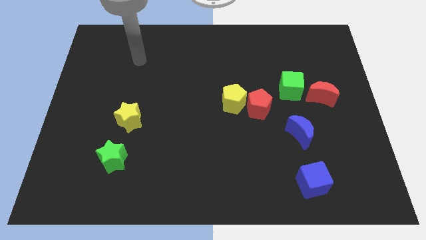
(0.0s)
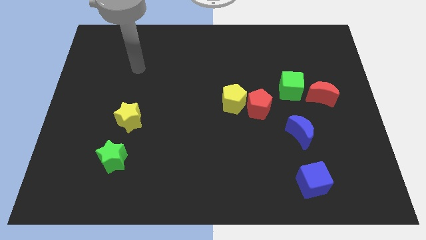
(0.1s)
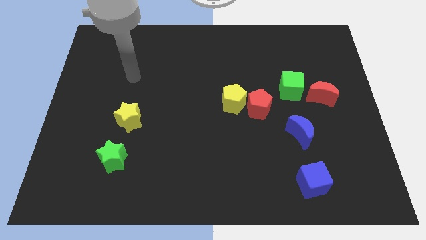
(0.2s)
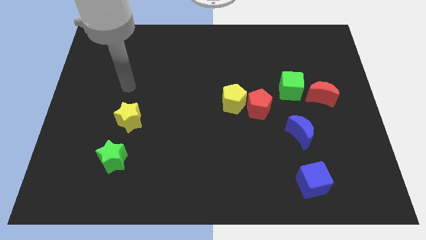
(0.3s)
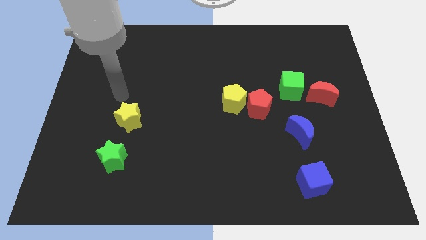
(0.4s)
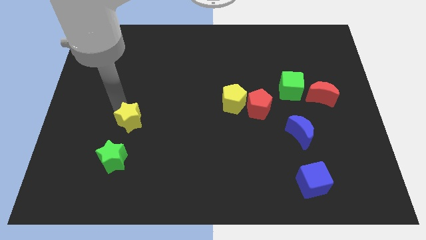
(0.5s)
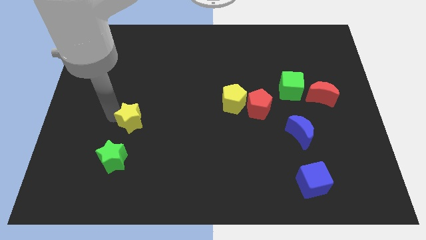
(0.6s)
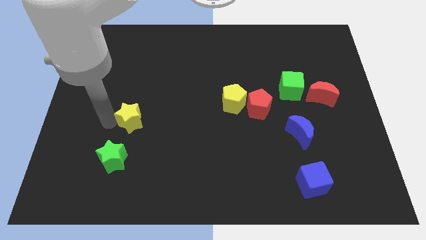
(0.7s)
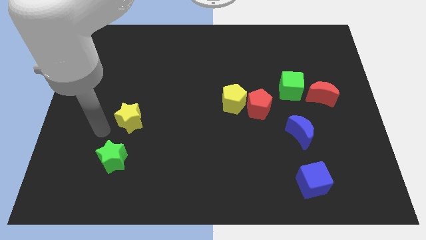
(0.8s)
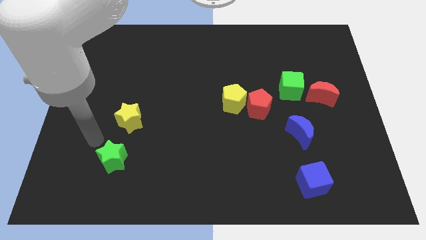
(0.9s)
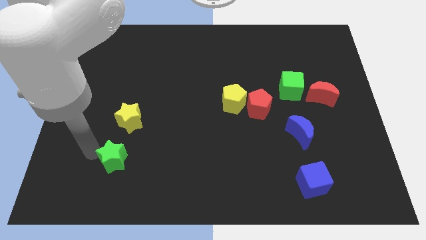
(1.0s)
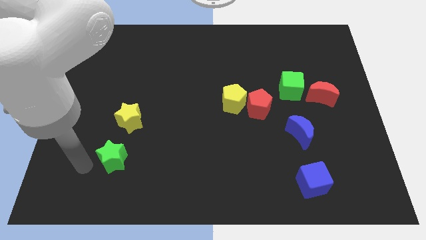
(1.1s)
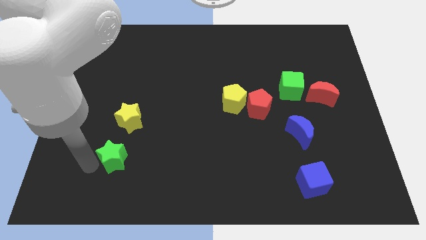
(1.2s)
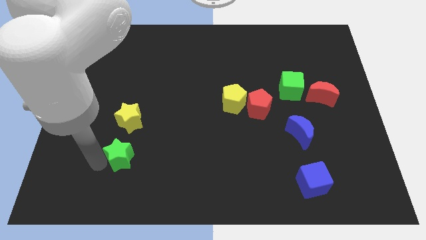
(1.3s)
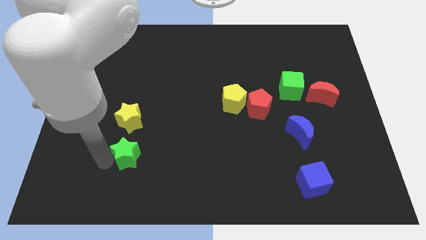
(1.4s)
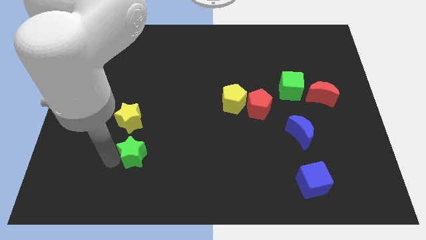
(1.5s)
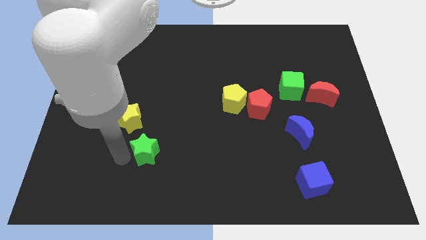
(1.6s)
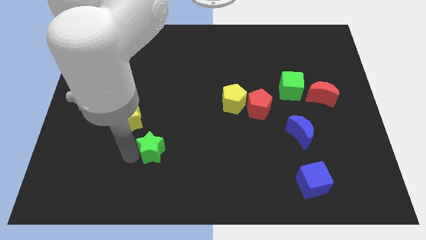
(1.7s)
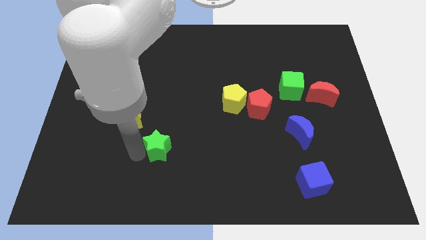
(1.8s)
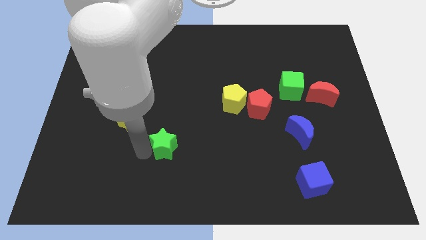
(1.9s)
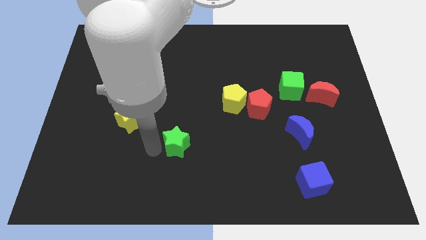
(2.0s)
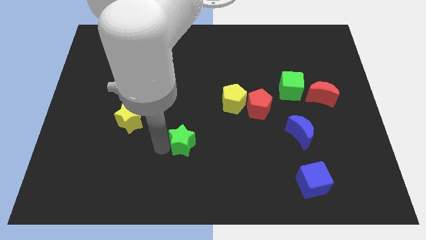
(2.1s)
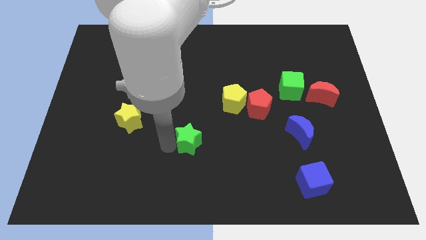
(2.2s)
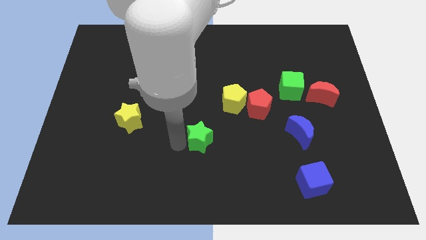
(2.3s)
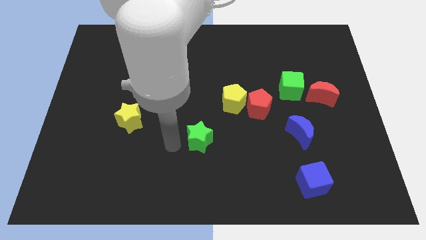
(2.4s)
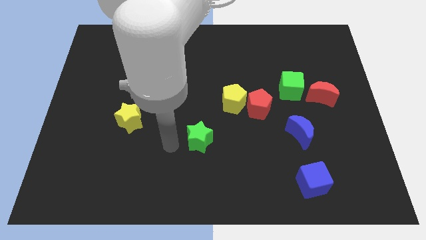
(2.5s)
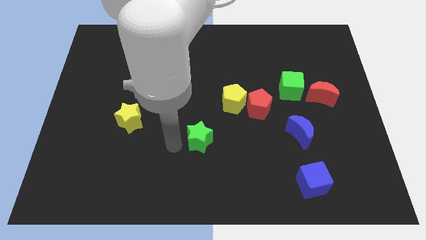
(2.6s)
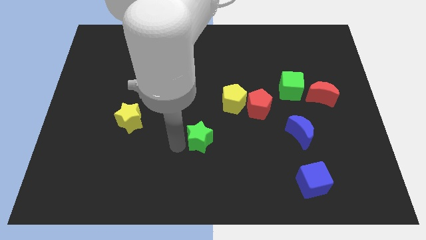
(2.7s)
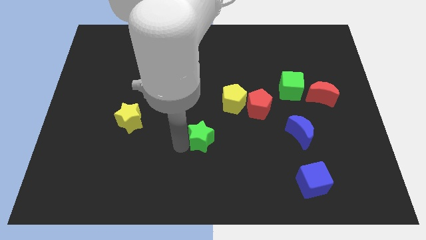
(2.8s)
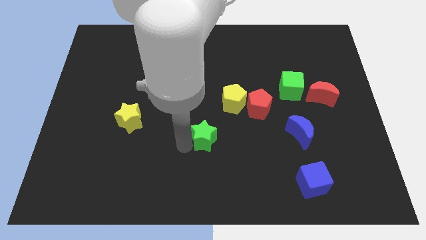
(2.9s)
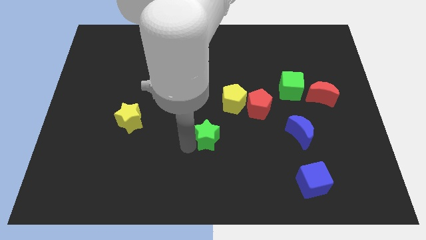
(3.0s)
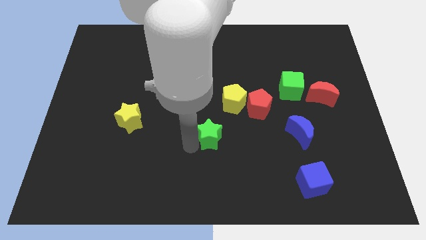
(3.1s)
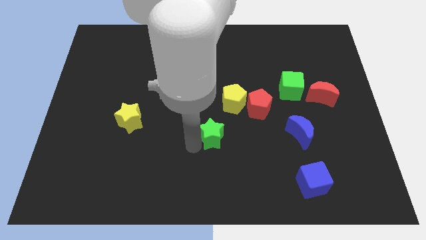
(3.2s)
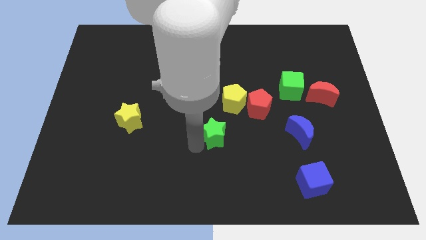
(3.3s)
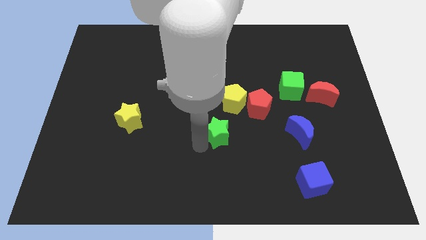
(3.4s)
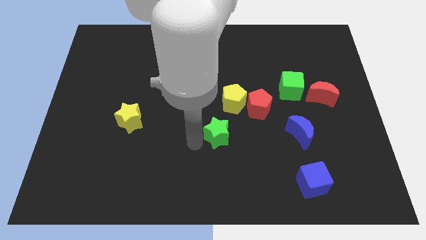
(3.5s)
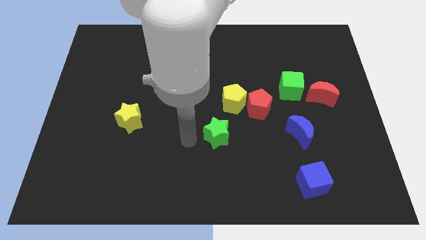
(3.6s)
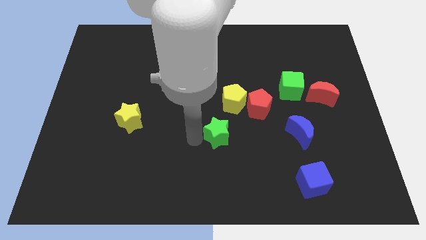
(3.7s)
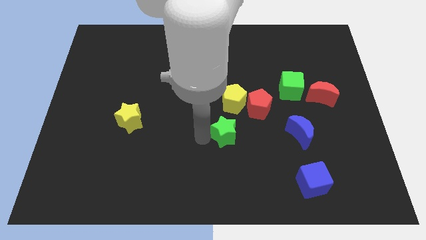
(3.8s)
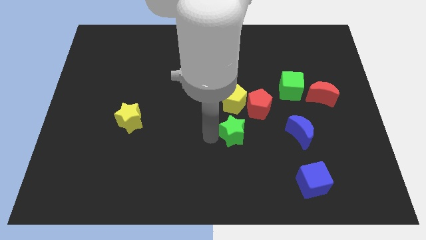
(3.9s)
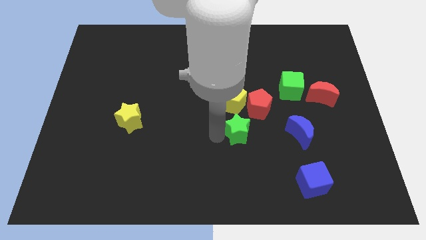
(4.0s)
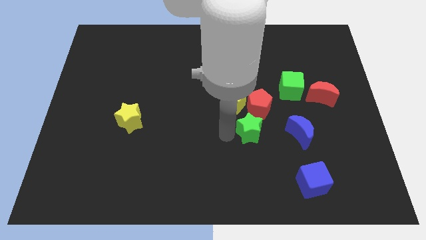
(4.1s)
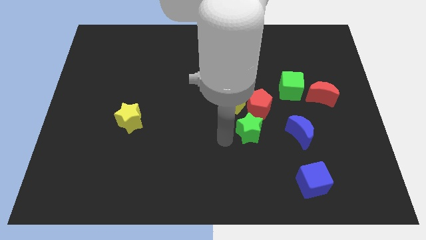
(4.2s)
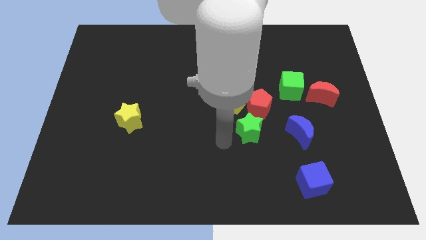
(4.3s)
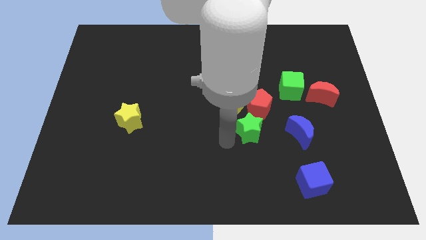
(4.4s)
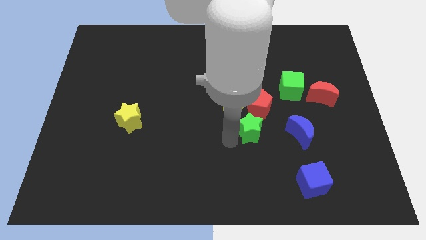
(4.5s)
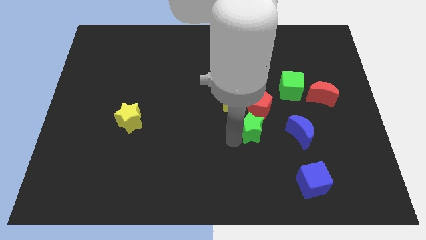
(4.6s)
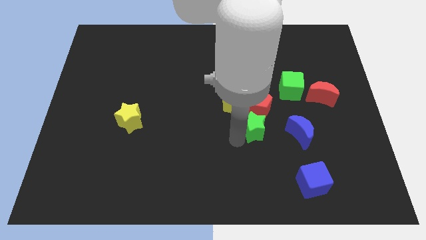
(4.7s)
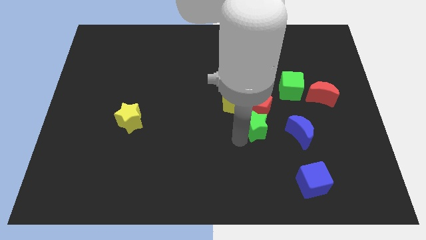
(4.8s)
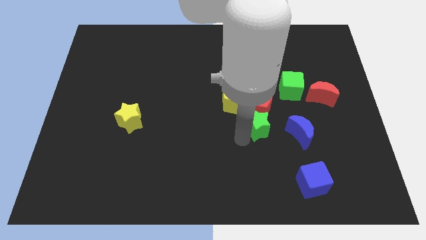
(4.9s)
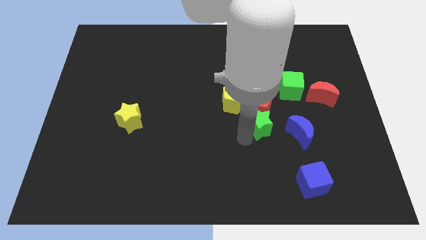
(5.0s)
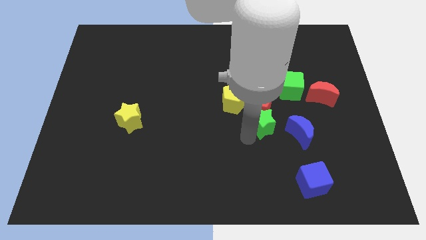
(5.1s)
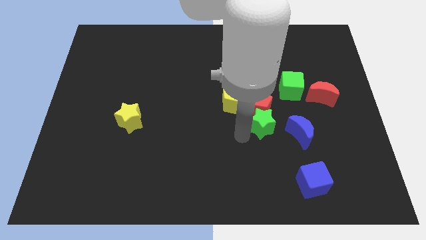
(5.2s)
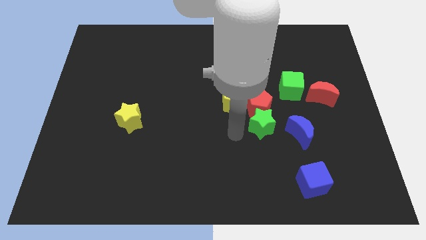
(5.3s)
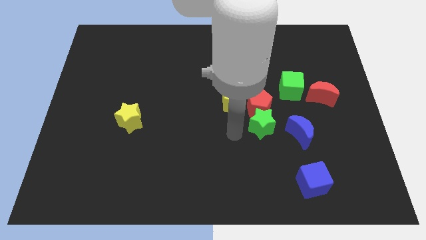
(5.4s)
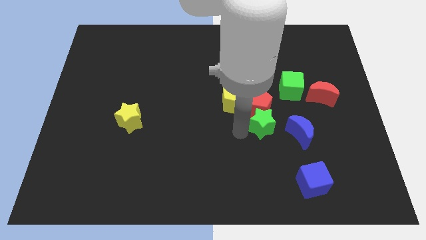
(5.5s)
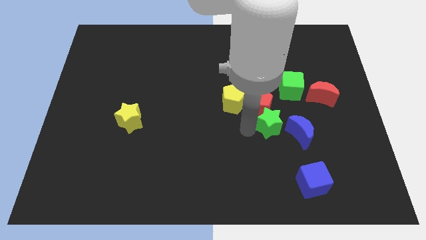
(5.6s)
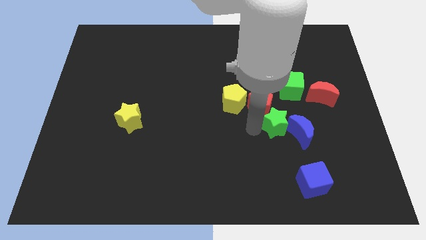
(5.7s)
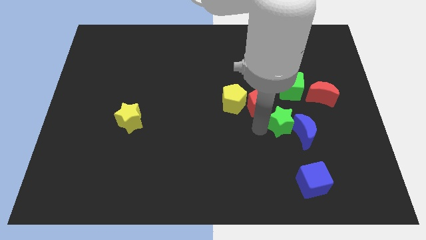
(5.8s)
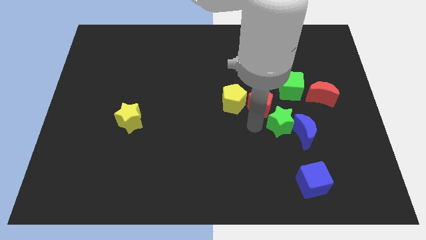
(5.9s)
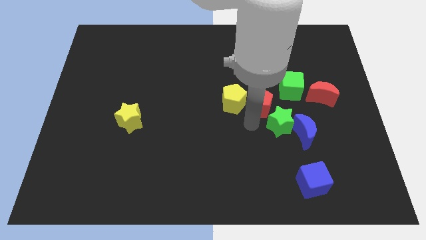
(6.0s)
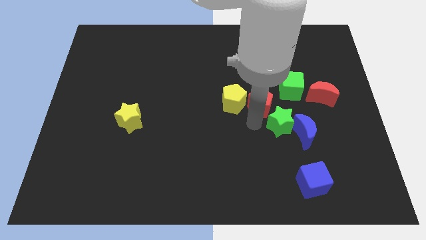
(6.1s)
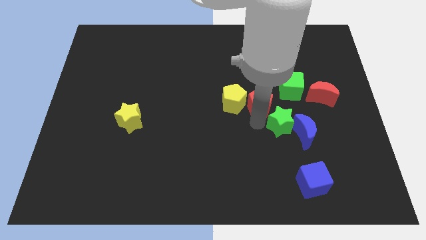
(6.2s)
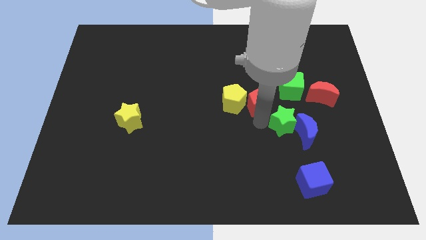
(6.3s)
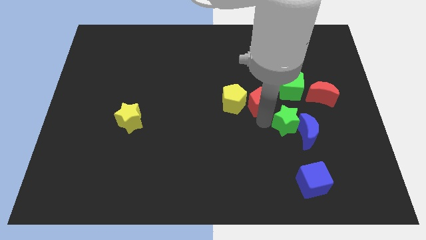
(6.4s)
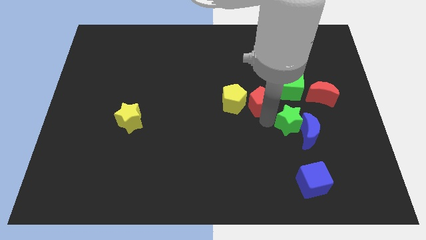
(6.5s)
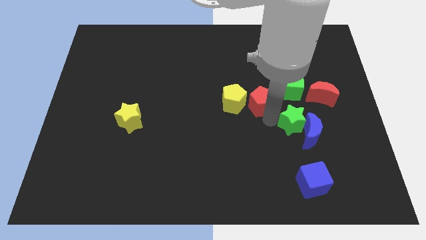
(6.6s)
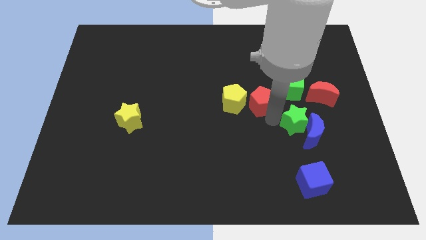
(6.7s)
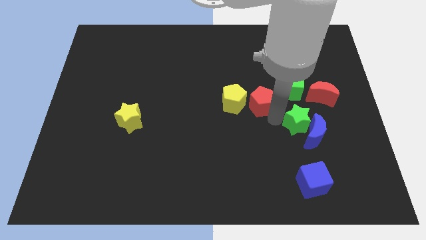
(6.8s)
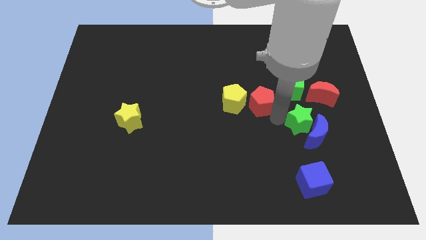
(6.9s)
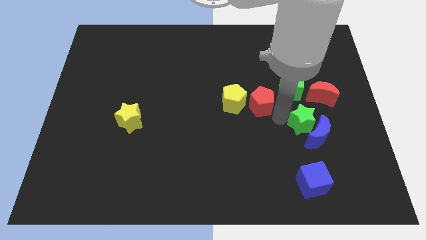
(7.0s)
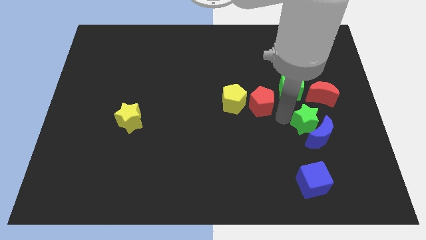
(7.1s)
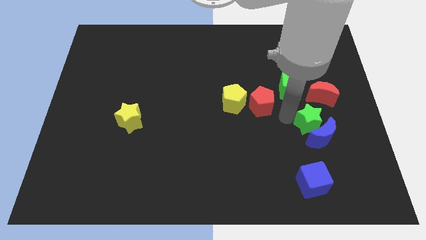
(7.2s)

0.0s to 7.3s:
move the green star below the red moon
